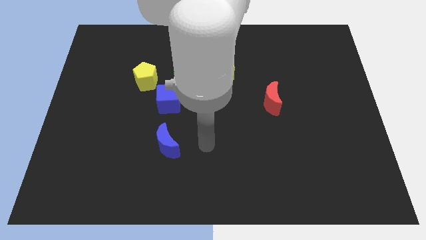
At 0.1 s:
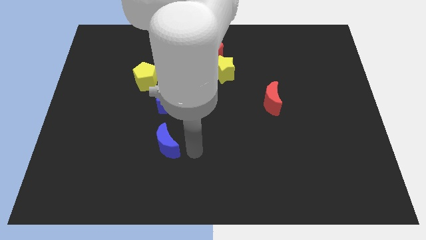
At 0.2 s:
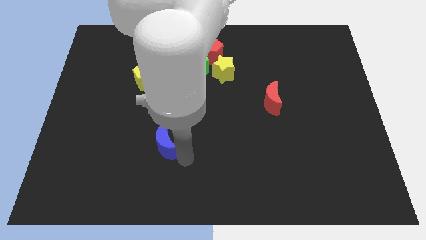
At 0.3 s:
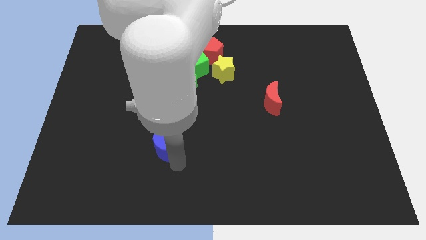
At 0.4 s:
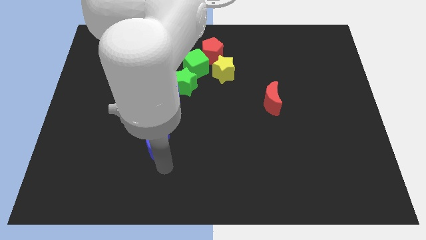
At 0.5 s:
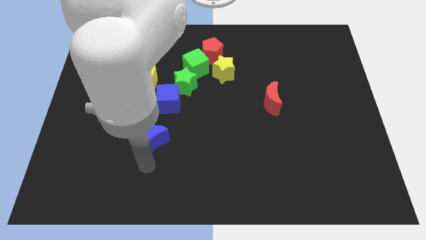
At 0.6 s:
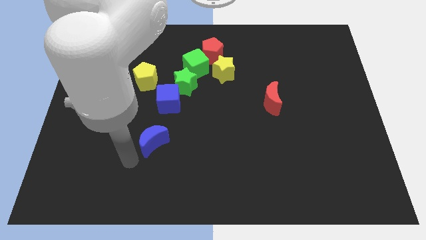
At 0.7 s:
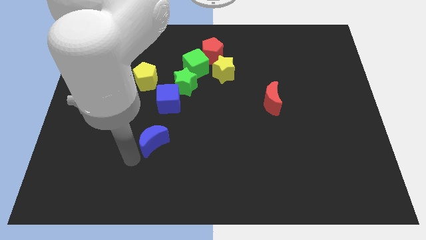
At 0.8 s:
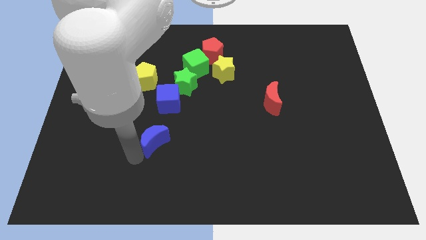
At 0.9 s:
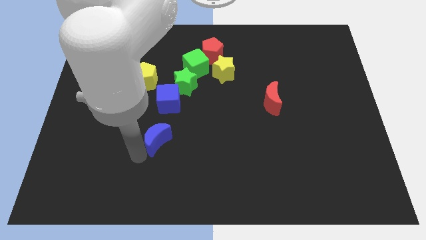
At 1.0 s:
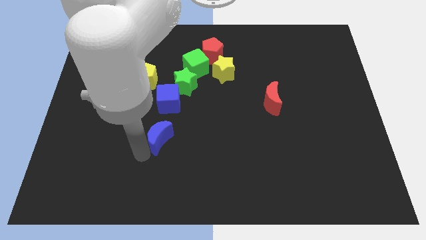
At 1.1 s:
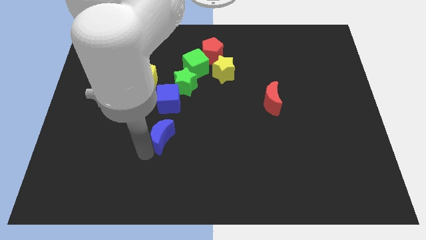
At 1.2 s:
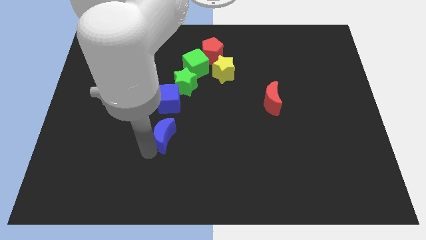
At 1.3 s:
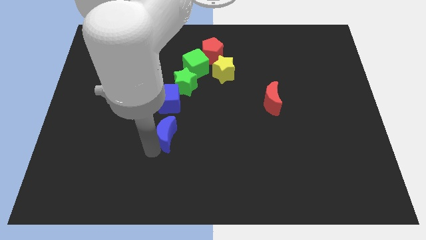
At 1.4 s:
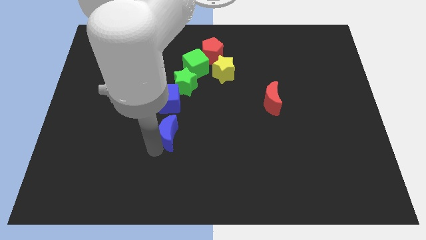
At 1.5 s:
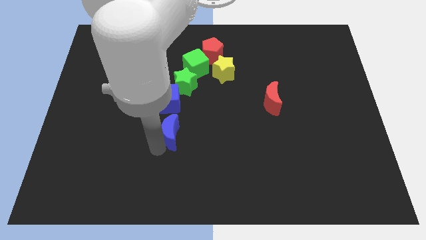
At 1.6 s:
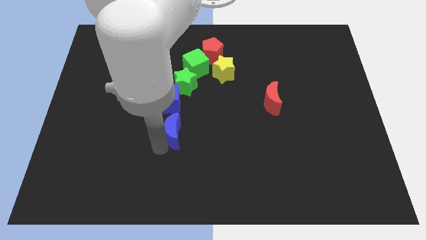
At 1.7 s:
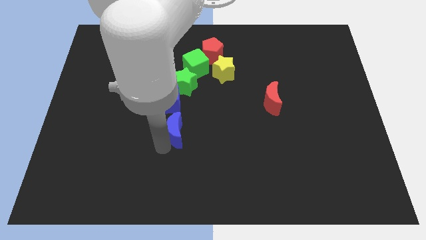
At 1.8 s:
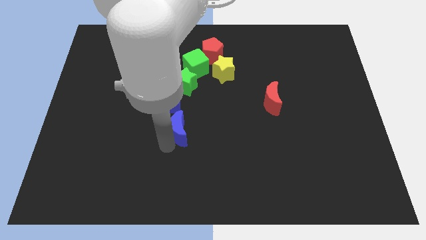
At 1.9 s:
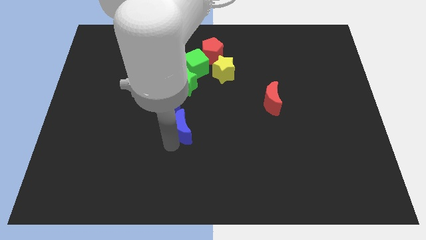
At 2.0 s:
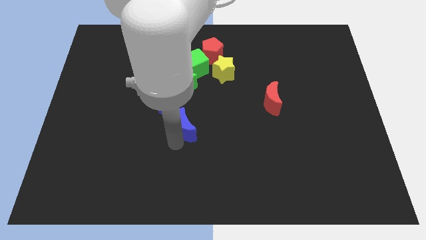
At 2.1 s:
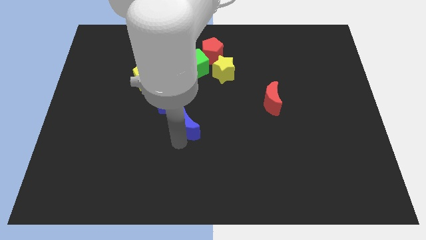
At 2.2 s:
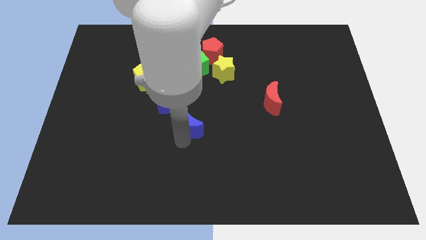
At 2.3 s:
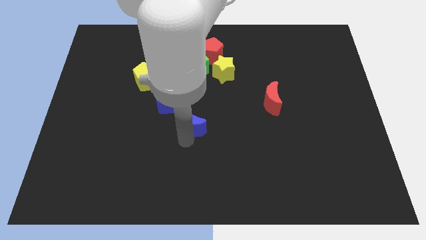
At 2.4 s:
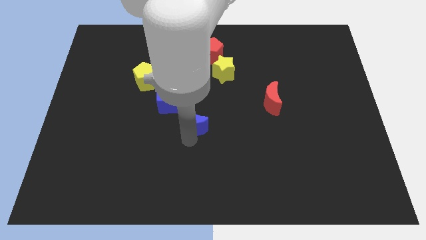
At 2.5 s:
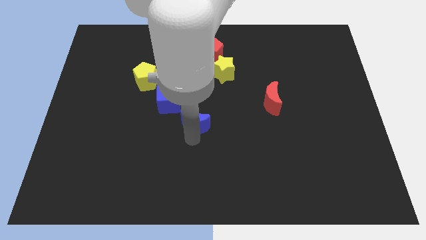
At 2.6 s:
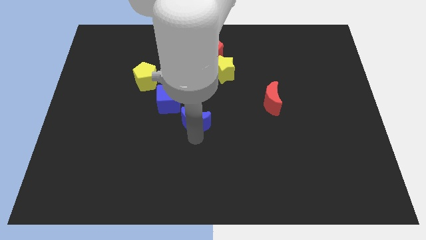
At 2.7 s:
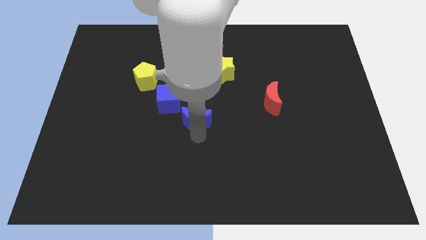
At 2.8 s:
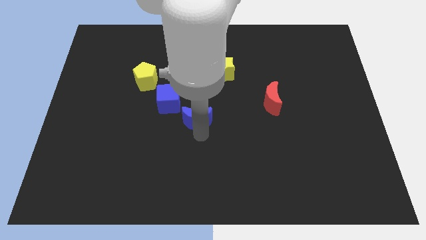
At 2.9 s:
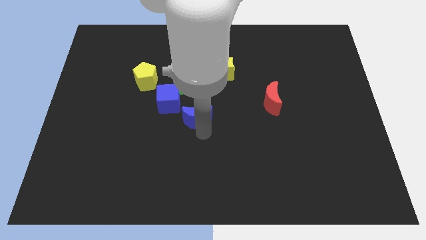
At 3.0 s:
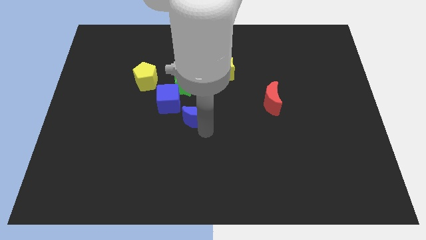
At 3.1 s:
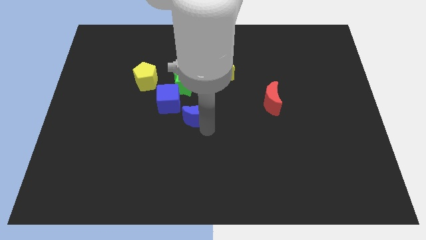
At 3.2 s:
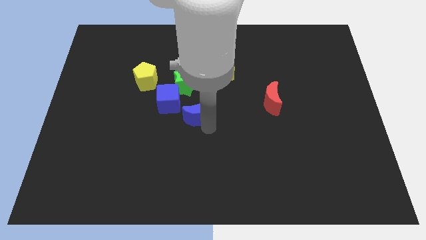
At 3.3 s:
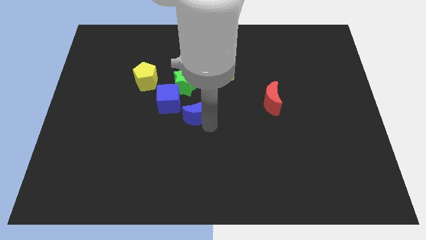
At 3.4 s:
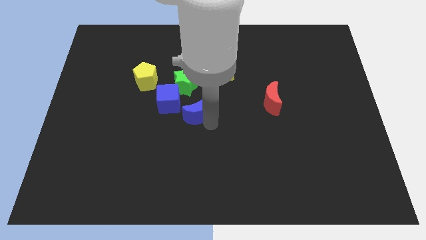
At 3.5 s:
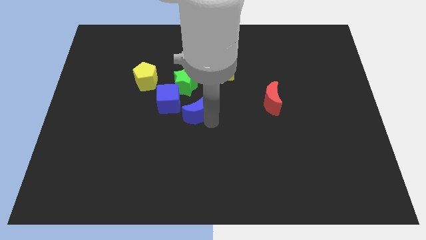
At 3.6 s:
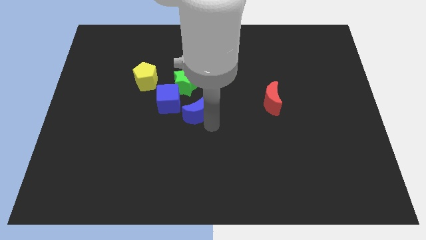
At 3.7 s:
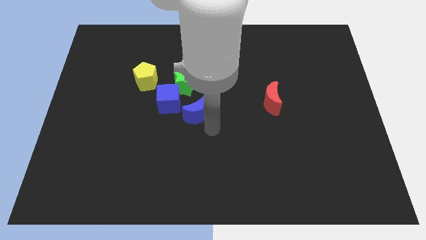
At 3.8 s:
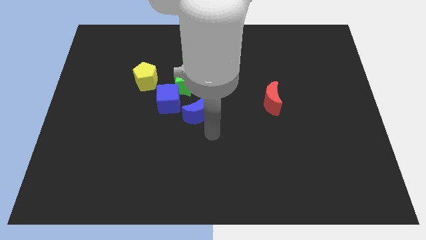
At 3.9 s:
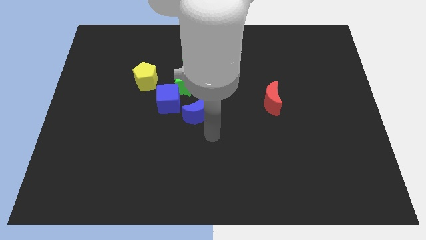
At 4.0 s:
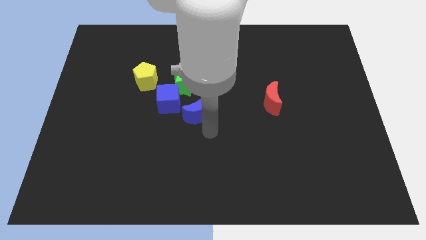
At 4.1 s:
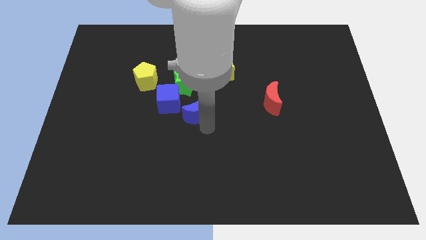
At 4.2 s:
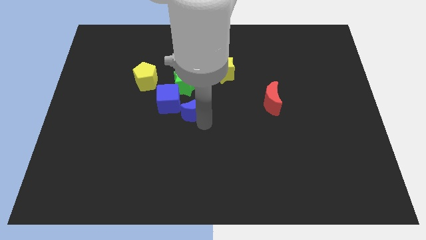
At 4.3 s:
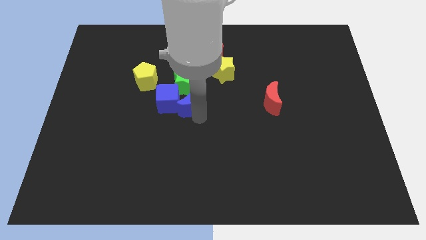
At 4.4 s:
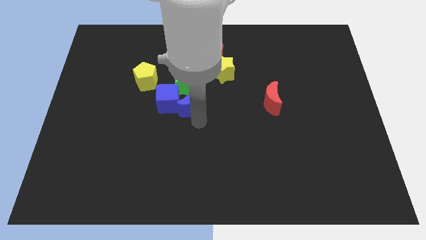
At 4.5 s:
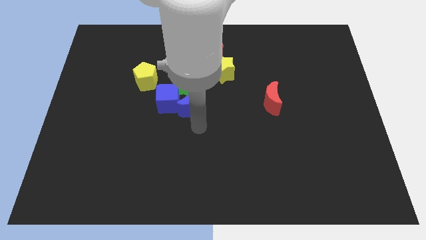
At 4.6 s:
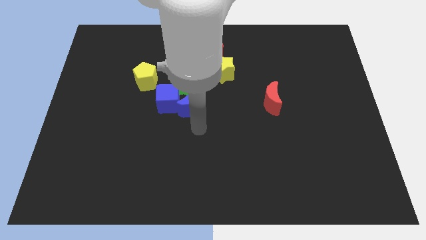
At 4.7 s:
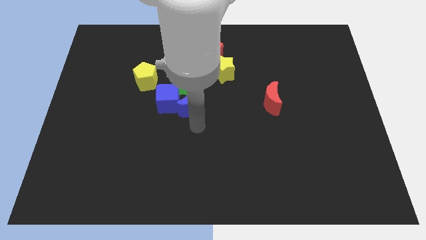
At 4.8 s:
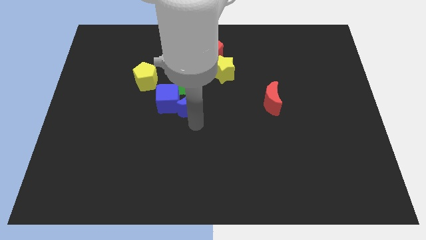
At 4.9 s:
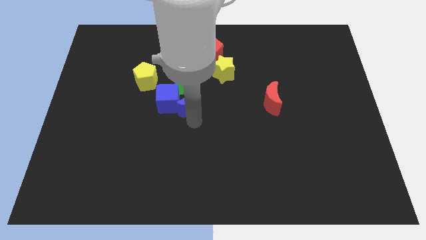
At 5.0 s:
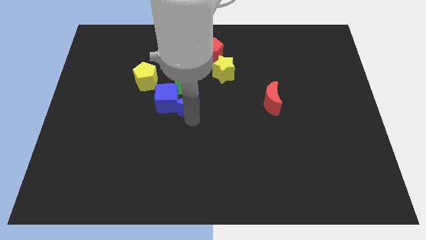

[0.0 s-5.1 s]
put the blue moon to the green star
